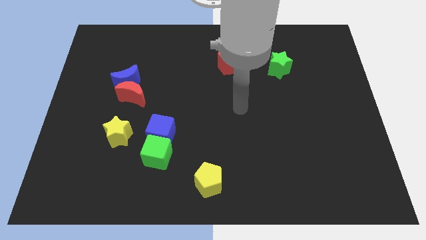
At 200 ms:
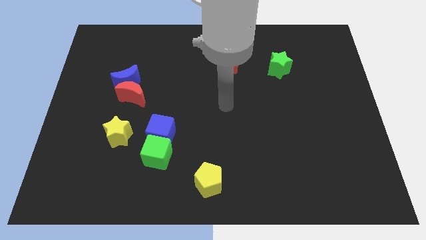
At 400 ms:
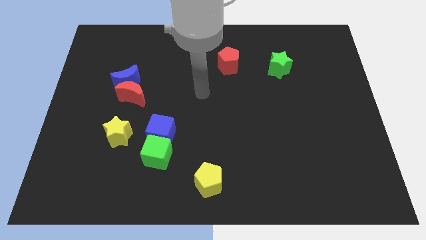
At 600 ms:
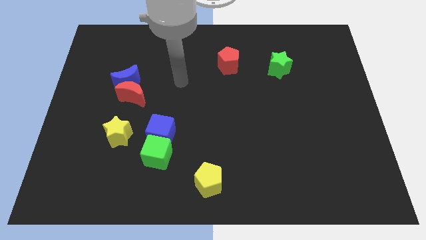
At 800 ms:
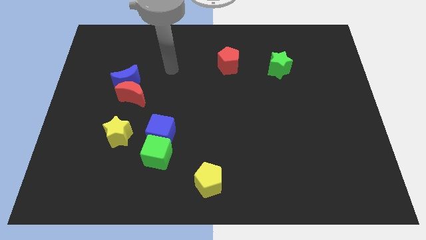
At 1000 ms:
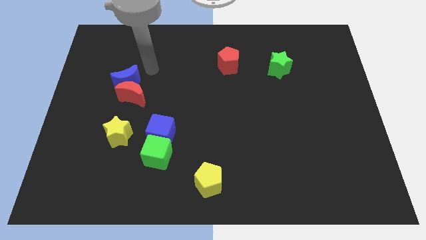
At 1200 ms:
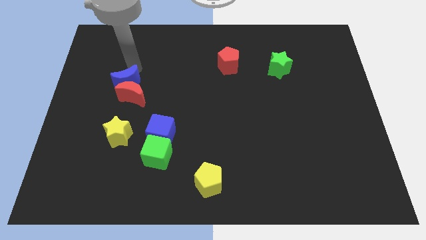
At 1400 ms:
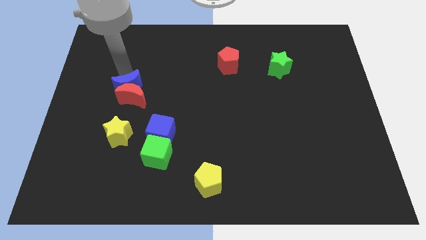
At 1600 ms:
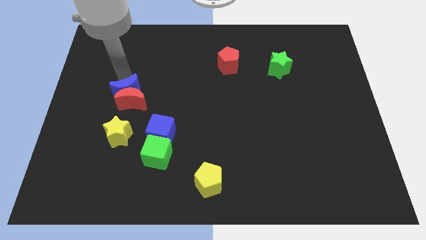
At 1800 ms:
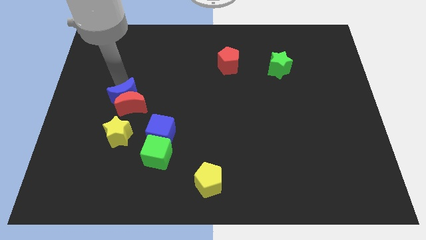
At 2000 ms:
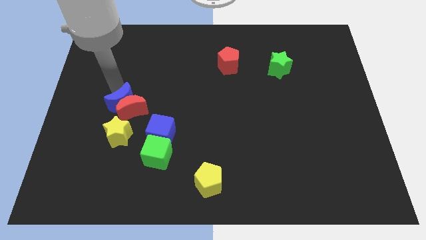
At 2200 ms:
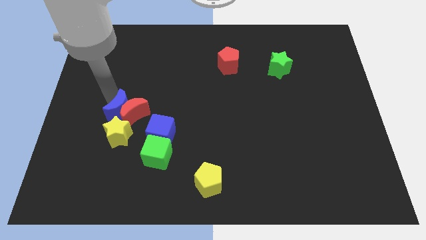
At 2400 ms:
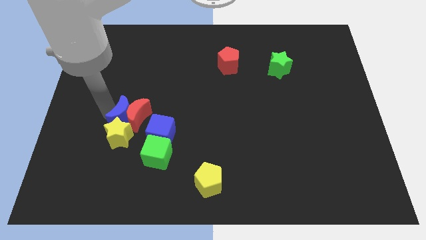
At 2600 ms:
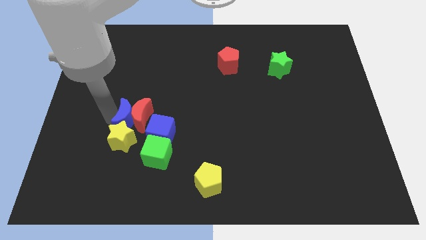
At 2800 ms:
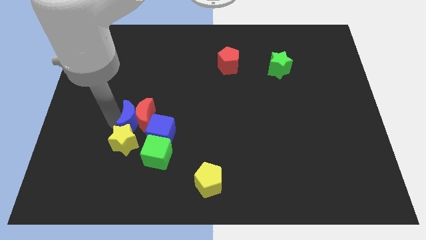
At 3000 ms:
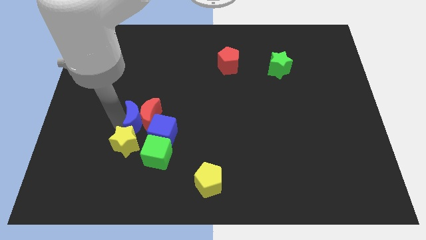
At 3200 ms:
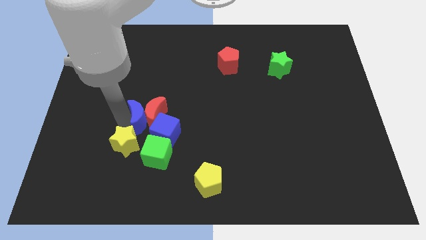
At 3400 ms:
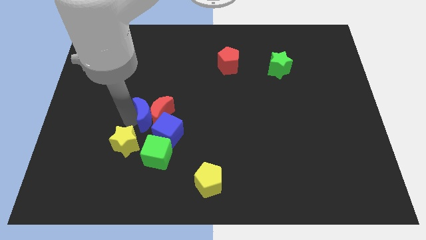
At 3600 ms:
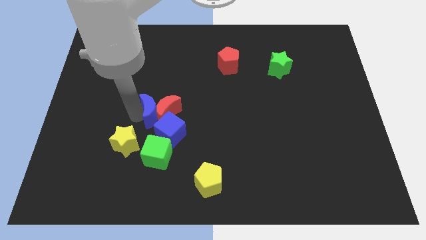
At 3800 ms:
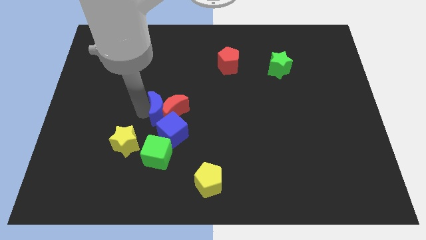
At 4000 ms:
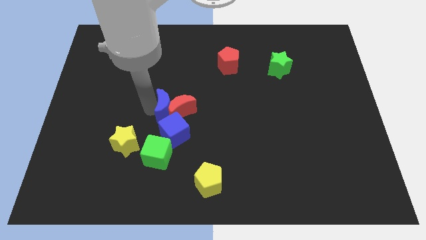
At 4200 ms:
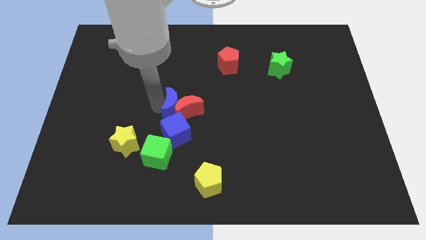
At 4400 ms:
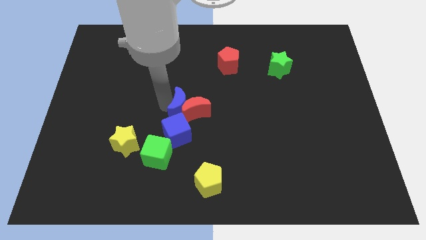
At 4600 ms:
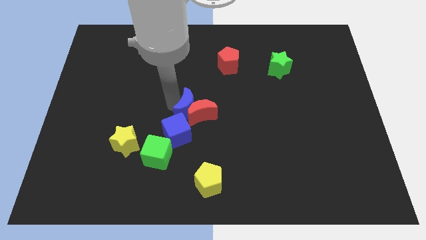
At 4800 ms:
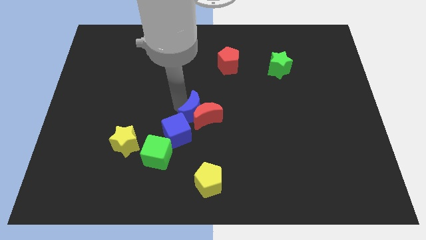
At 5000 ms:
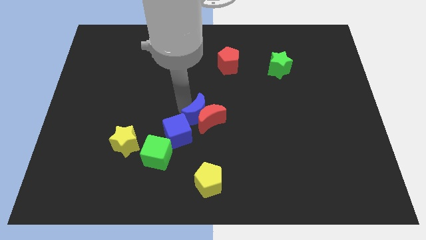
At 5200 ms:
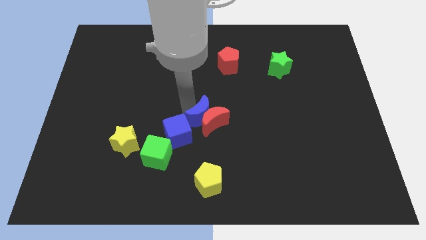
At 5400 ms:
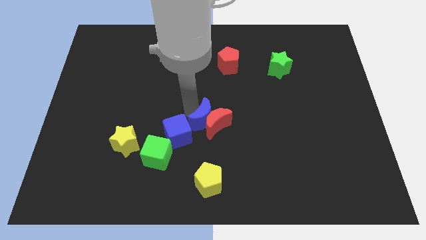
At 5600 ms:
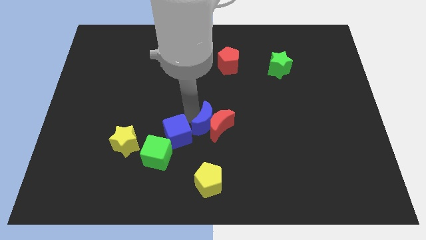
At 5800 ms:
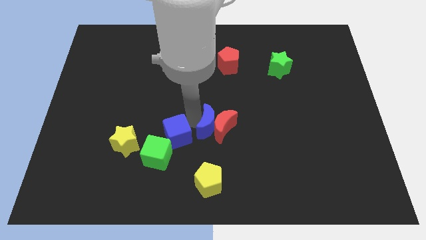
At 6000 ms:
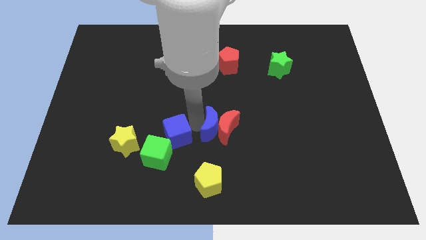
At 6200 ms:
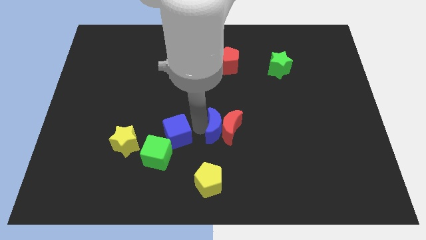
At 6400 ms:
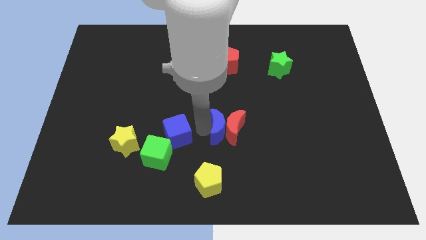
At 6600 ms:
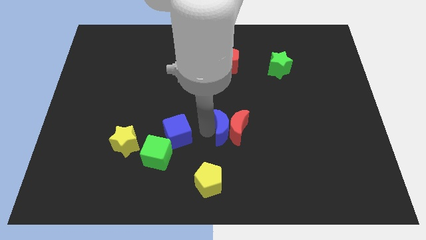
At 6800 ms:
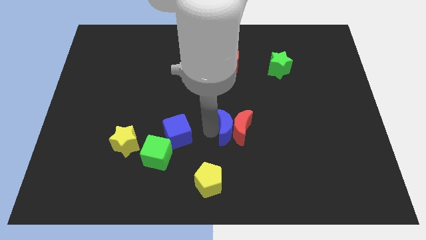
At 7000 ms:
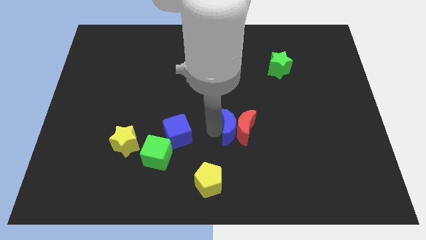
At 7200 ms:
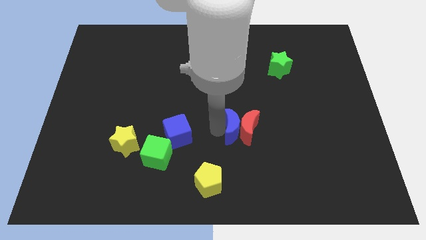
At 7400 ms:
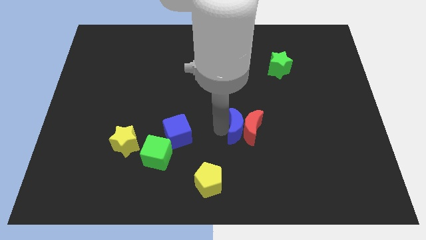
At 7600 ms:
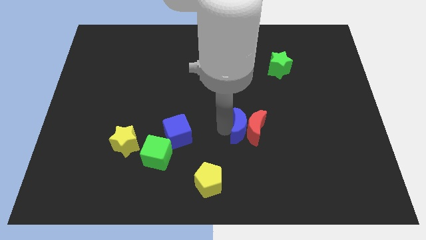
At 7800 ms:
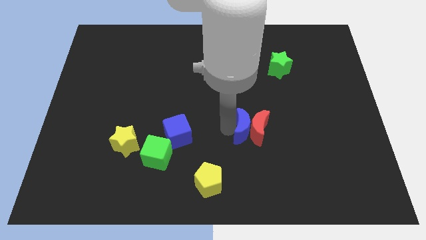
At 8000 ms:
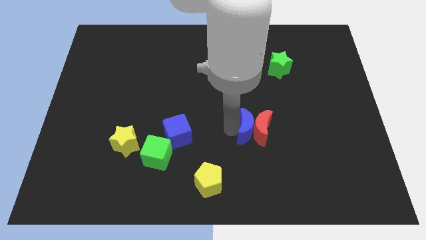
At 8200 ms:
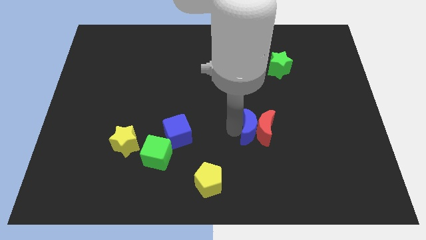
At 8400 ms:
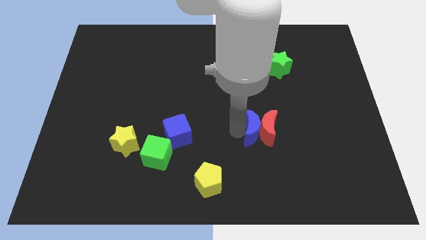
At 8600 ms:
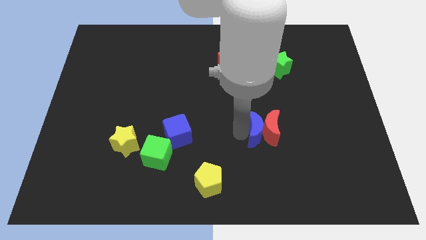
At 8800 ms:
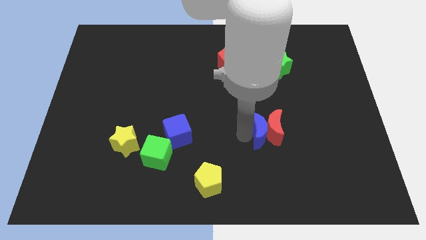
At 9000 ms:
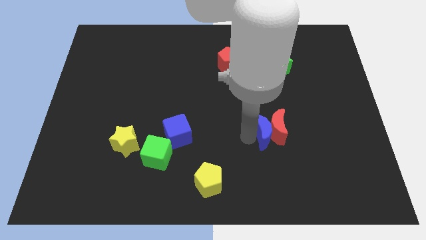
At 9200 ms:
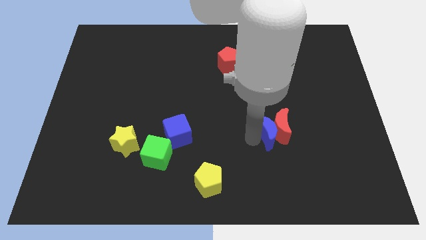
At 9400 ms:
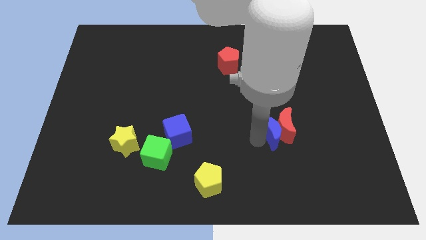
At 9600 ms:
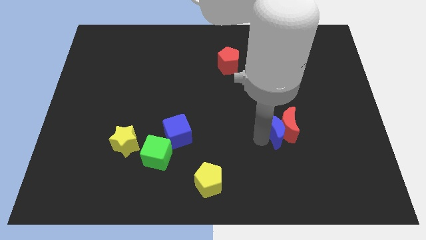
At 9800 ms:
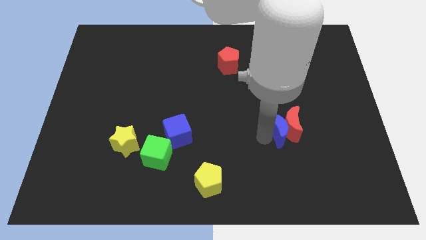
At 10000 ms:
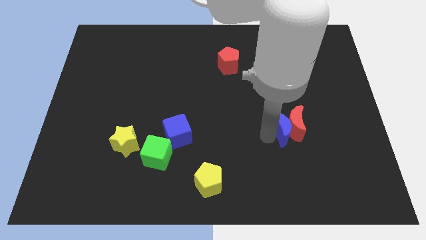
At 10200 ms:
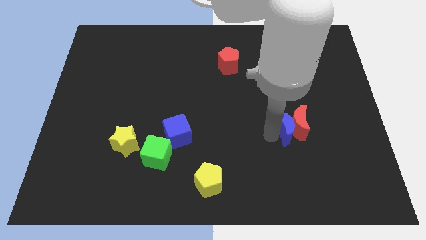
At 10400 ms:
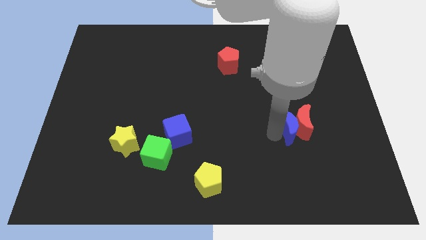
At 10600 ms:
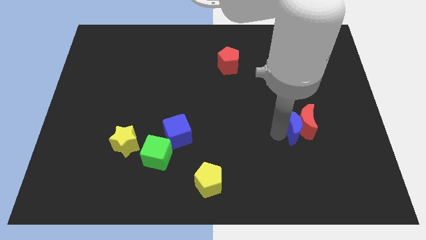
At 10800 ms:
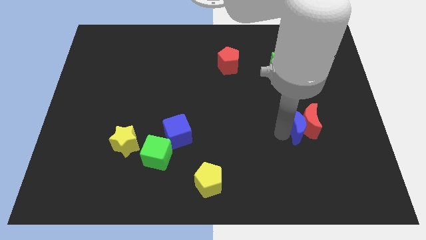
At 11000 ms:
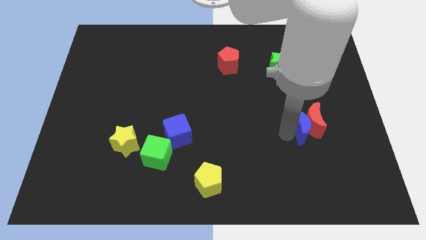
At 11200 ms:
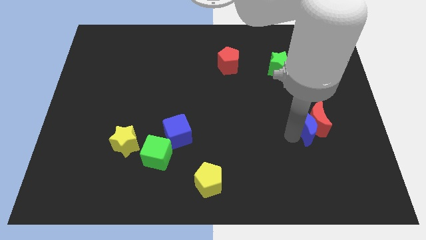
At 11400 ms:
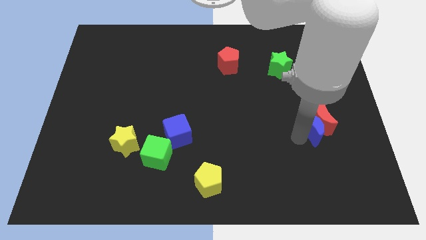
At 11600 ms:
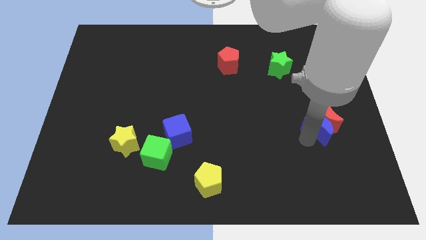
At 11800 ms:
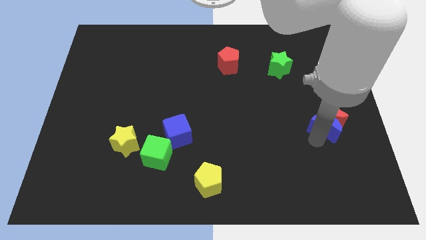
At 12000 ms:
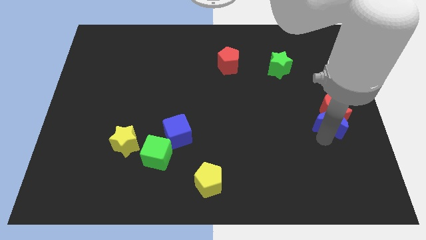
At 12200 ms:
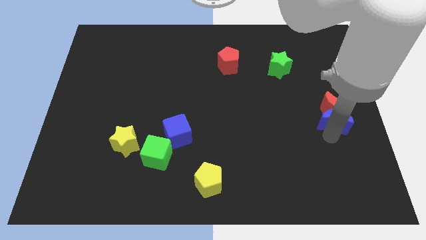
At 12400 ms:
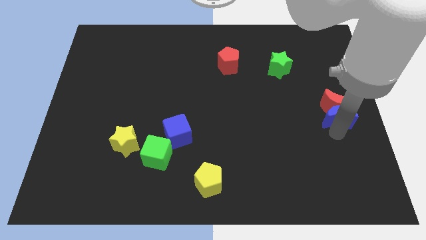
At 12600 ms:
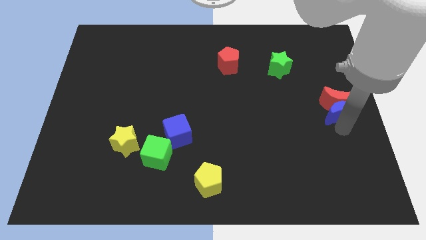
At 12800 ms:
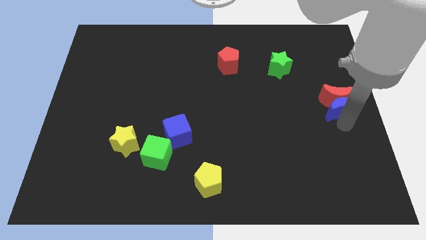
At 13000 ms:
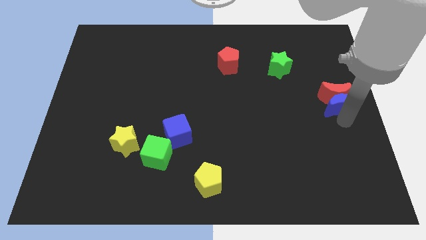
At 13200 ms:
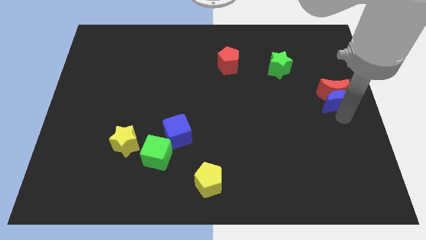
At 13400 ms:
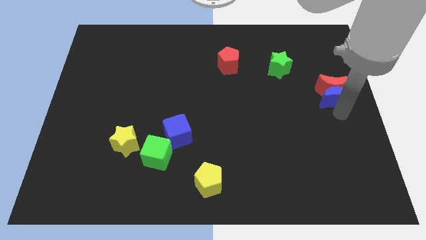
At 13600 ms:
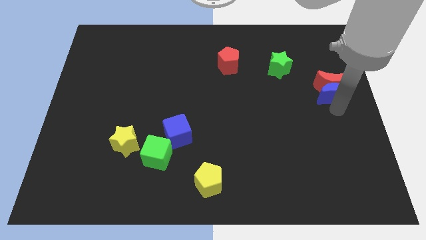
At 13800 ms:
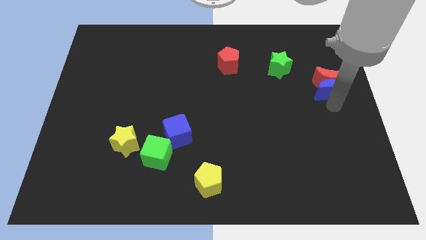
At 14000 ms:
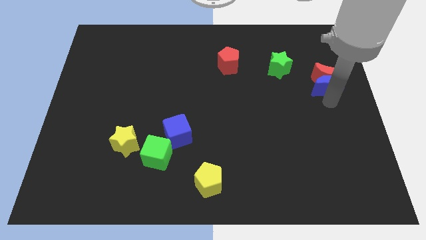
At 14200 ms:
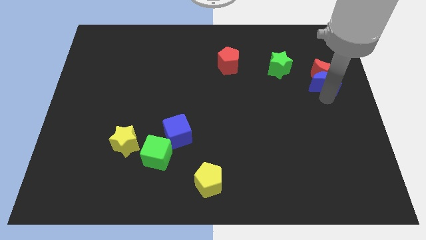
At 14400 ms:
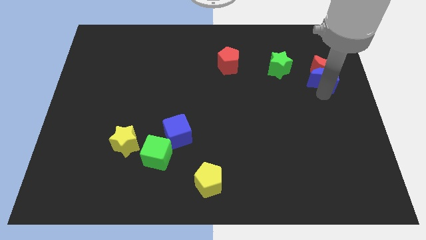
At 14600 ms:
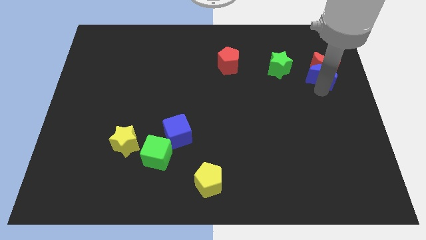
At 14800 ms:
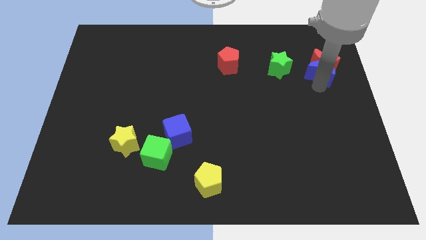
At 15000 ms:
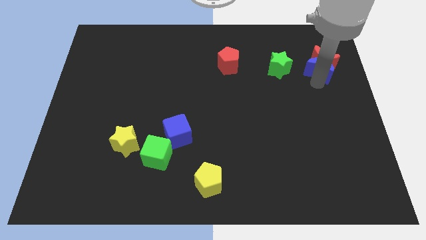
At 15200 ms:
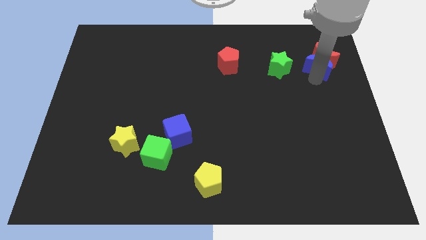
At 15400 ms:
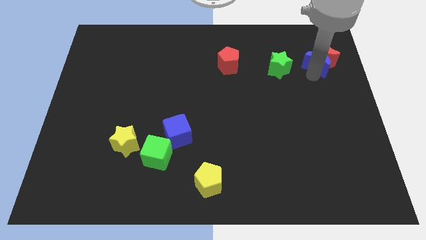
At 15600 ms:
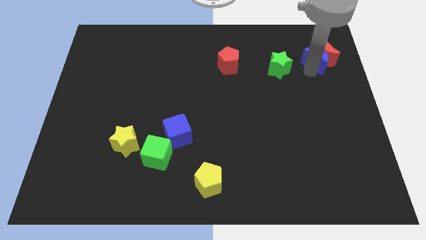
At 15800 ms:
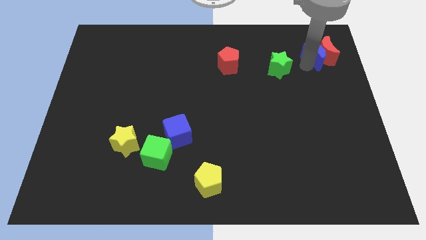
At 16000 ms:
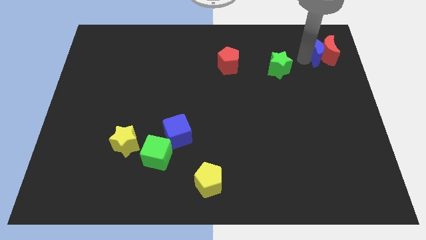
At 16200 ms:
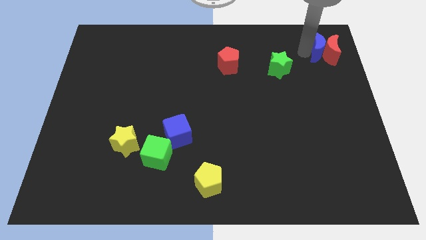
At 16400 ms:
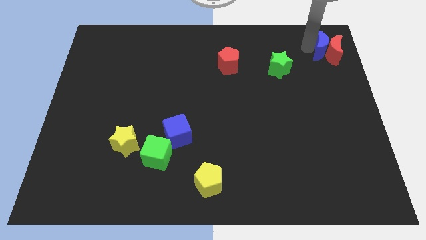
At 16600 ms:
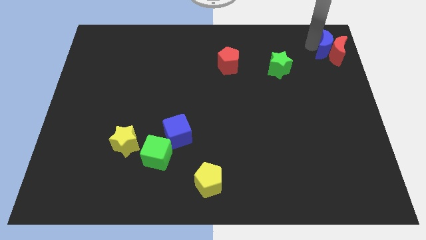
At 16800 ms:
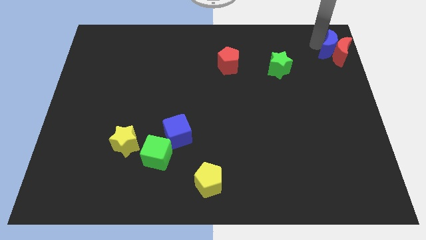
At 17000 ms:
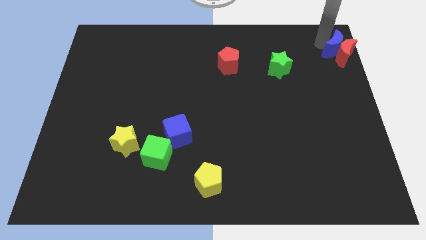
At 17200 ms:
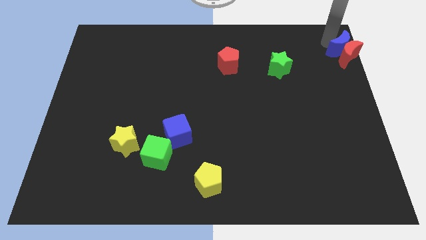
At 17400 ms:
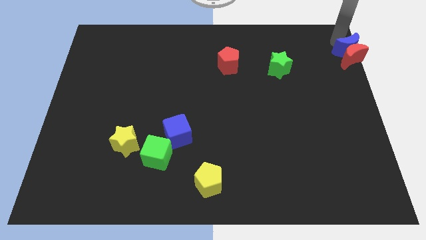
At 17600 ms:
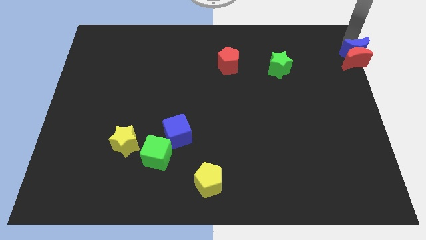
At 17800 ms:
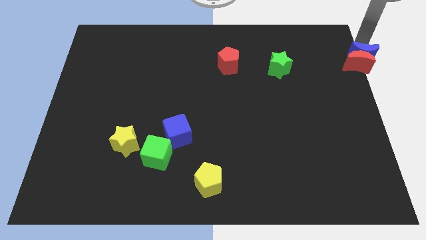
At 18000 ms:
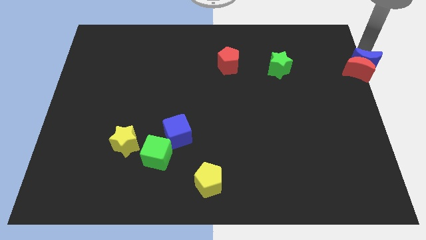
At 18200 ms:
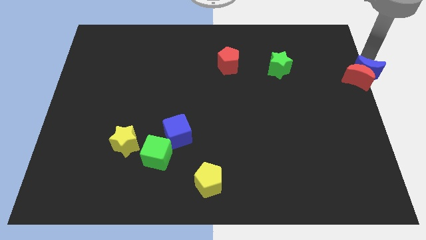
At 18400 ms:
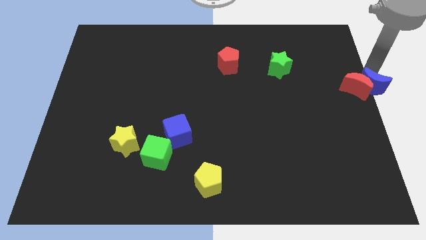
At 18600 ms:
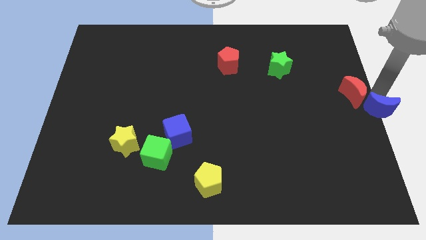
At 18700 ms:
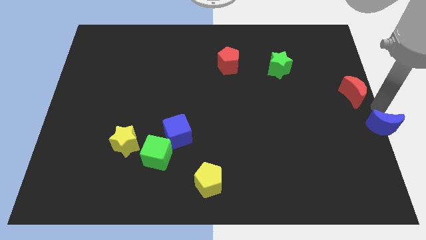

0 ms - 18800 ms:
pull the red moon apart from the blue moon
